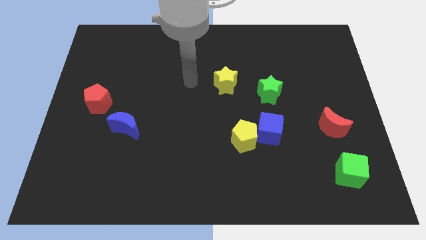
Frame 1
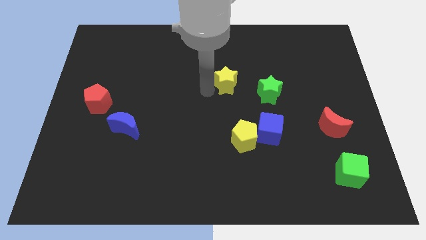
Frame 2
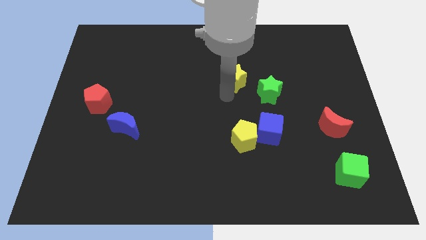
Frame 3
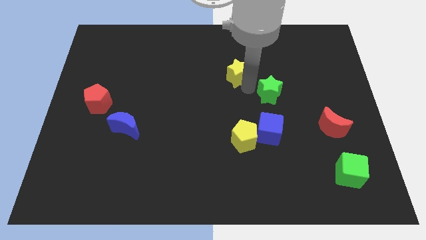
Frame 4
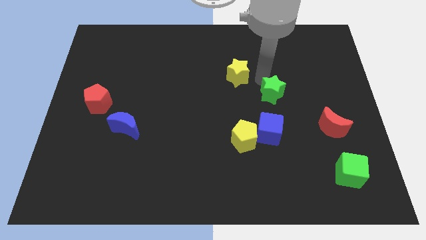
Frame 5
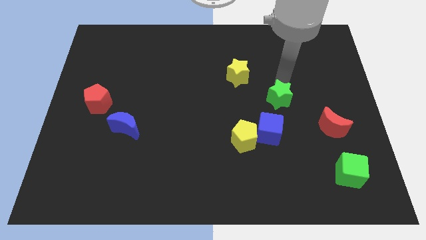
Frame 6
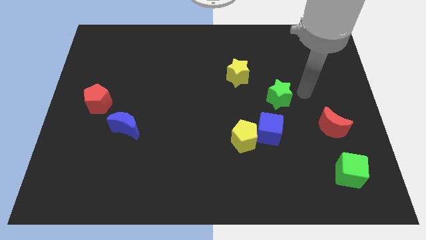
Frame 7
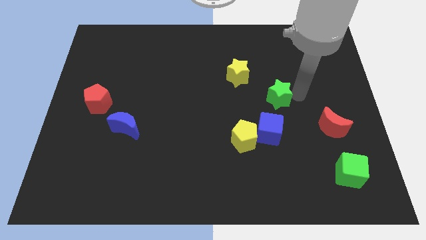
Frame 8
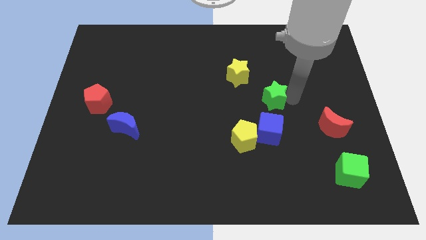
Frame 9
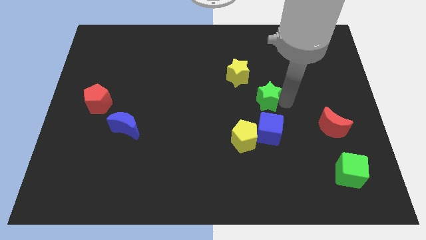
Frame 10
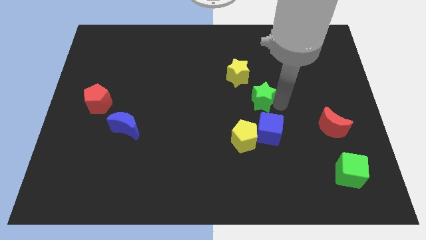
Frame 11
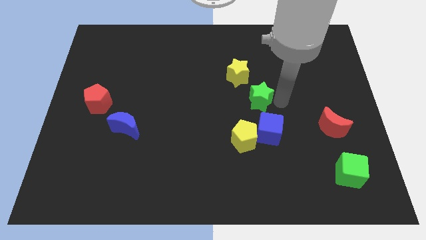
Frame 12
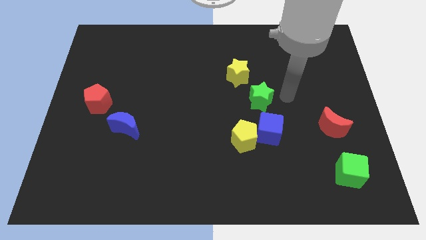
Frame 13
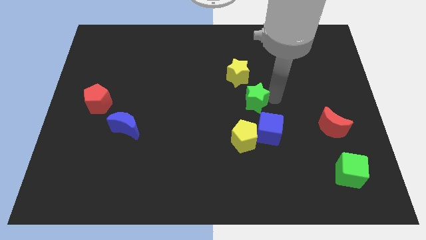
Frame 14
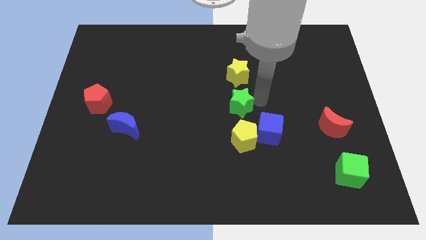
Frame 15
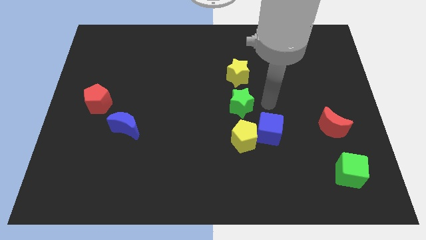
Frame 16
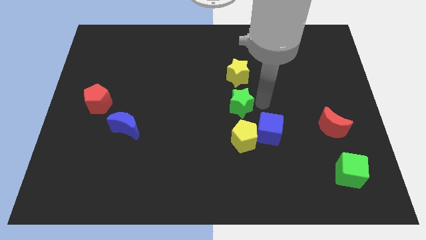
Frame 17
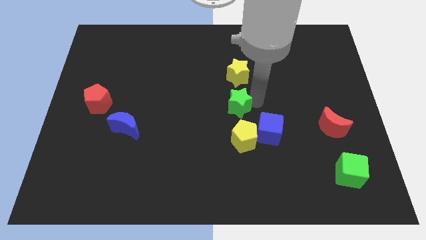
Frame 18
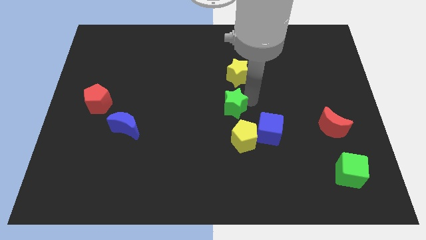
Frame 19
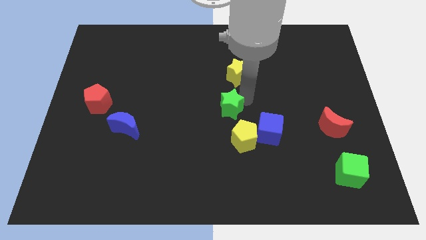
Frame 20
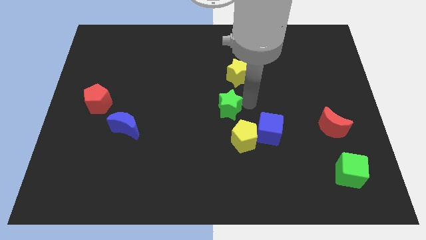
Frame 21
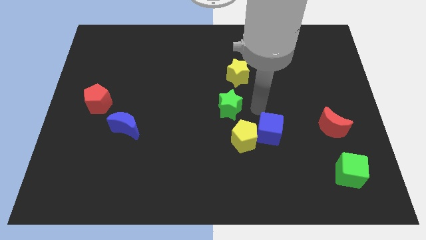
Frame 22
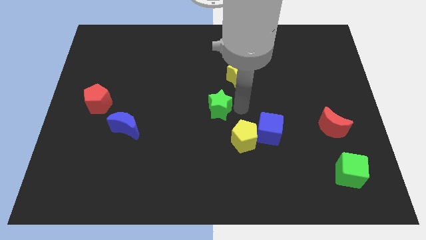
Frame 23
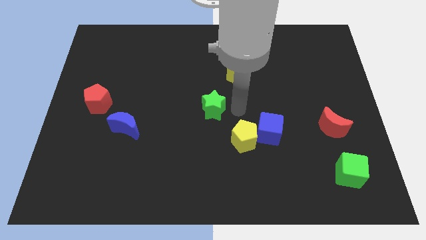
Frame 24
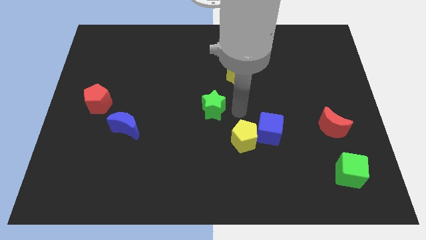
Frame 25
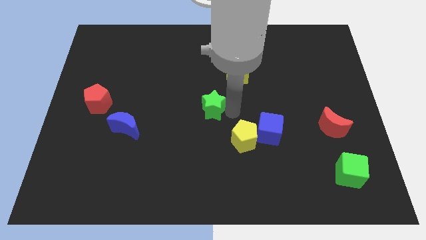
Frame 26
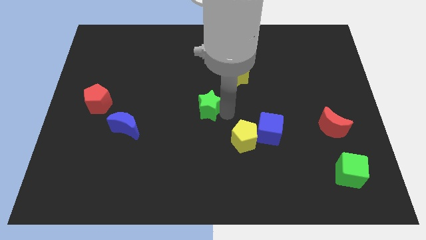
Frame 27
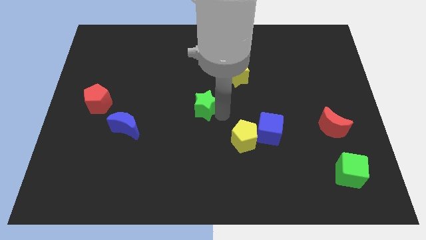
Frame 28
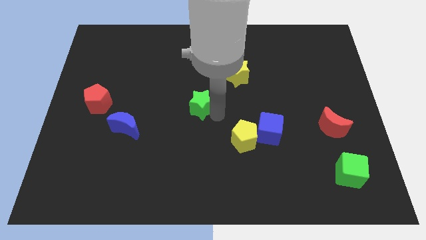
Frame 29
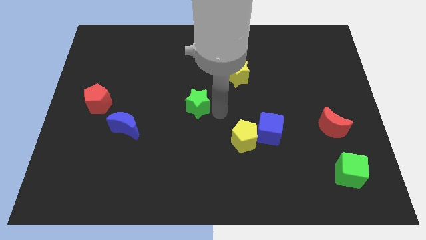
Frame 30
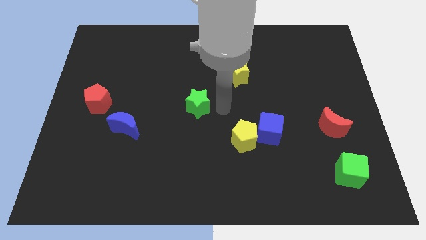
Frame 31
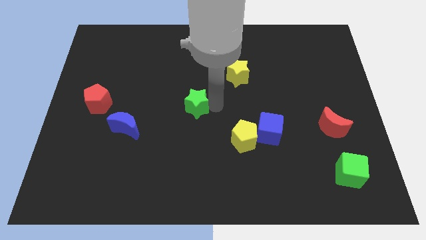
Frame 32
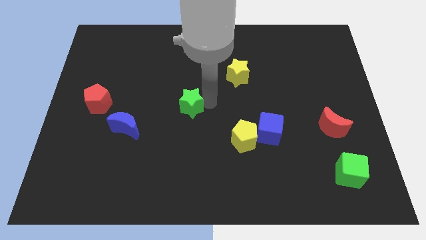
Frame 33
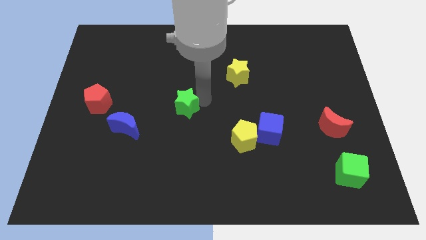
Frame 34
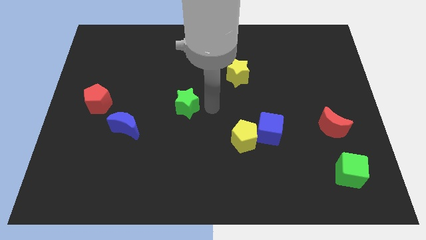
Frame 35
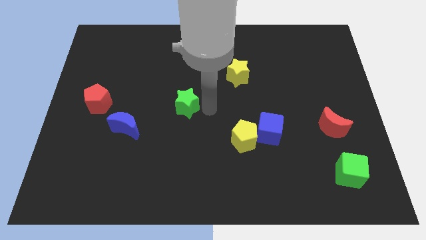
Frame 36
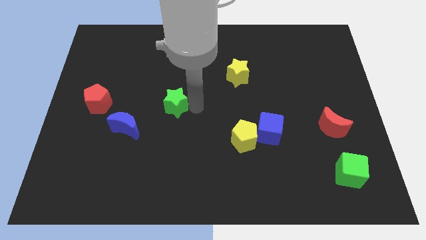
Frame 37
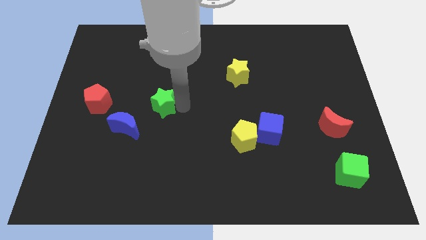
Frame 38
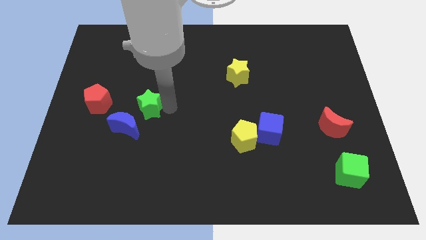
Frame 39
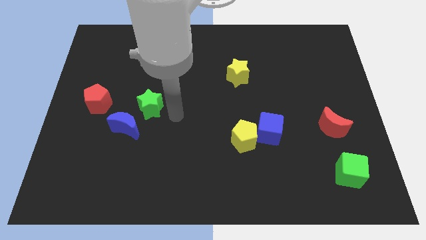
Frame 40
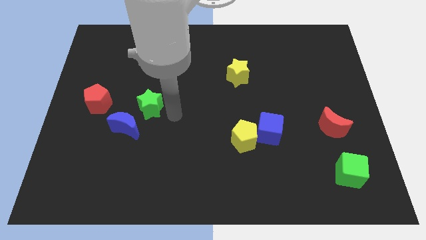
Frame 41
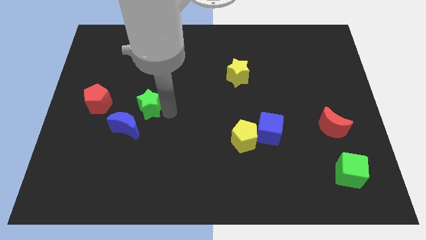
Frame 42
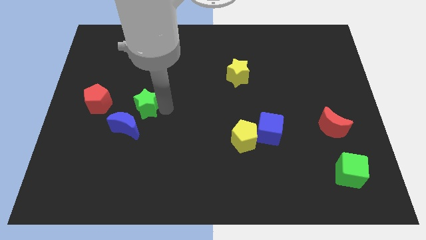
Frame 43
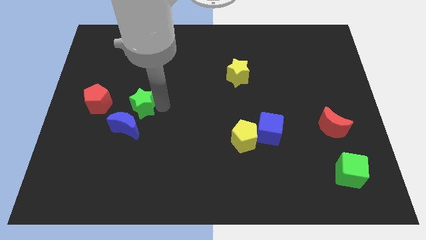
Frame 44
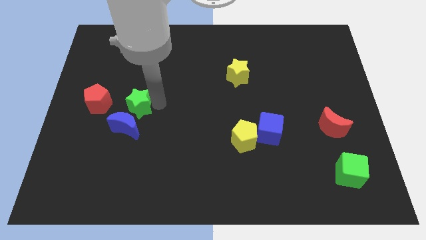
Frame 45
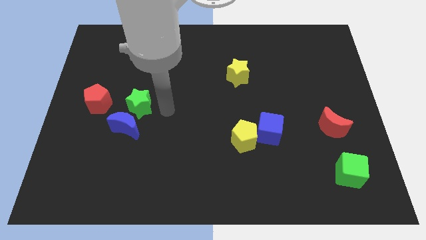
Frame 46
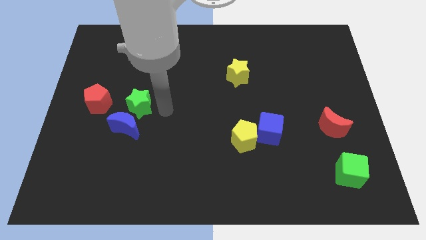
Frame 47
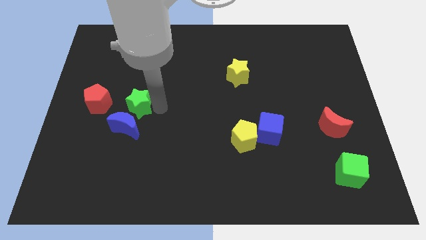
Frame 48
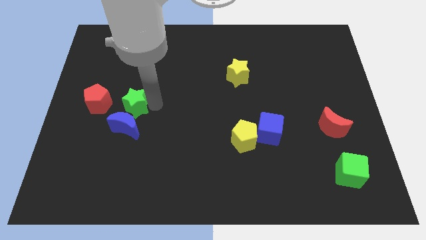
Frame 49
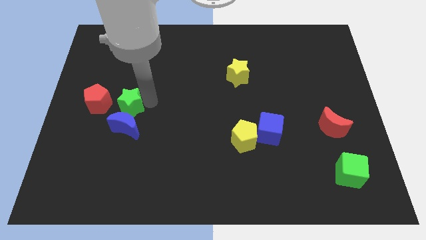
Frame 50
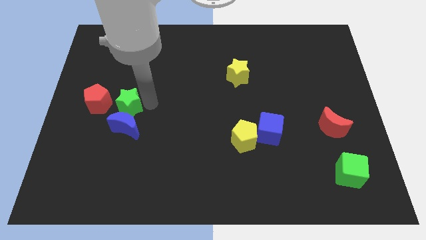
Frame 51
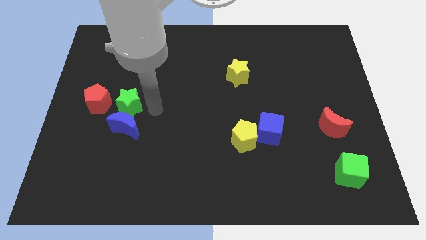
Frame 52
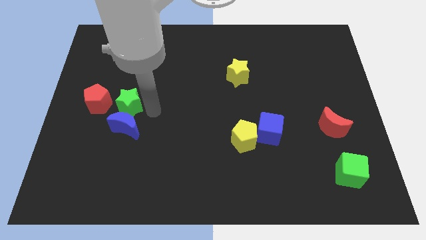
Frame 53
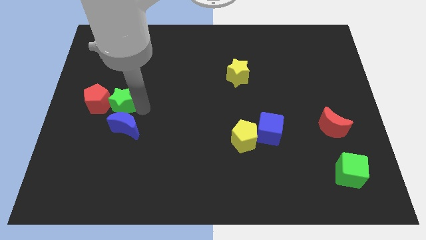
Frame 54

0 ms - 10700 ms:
move the green star next to the red pentagon

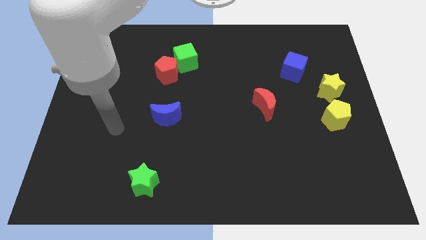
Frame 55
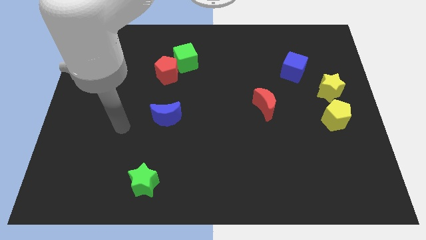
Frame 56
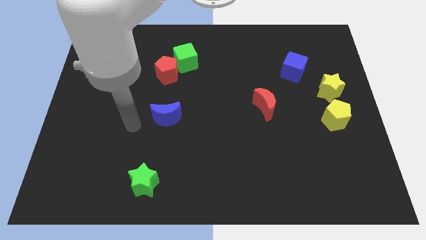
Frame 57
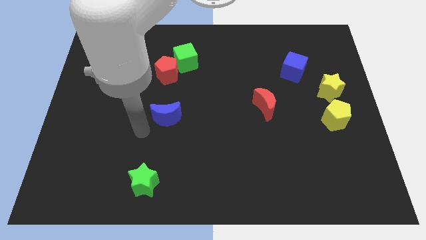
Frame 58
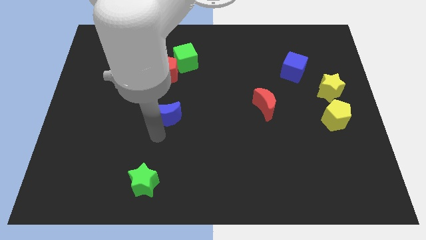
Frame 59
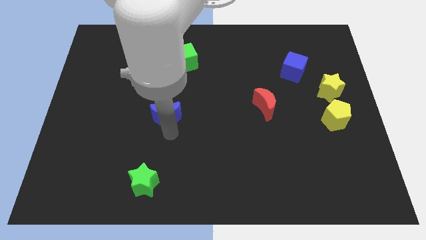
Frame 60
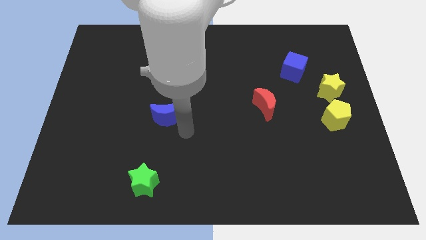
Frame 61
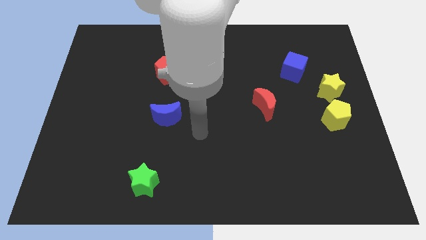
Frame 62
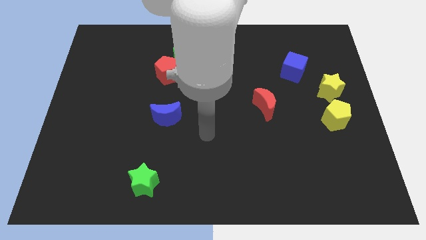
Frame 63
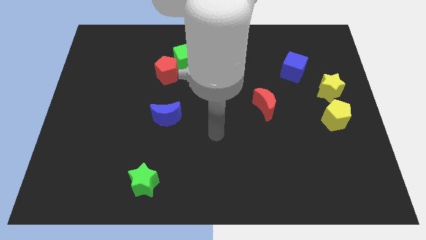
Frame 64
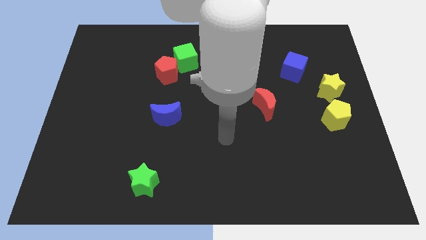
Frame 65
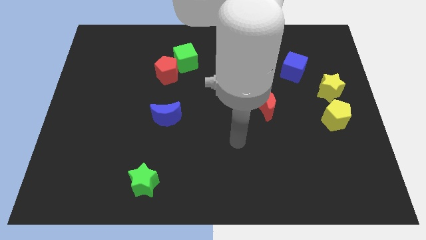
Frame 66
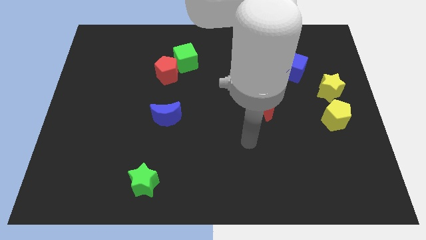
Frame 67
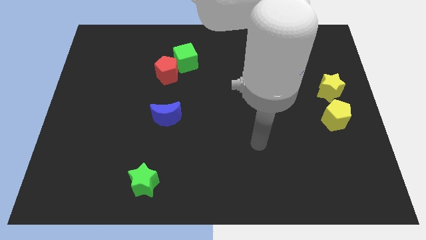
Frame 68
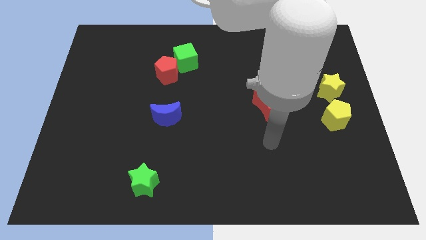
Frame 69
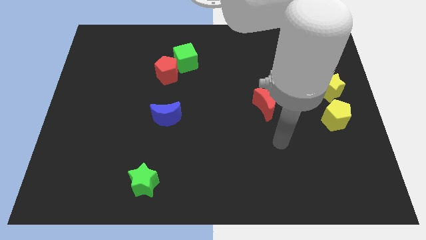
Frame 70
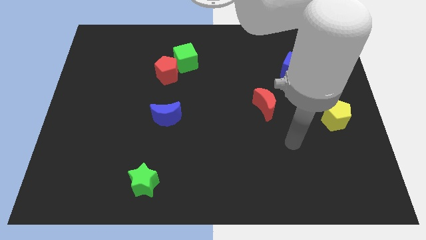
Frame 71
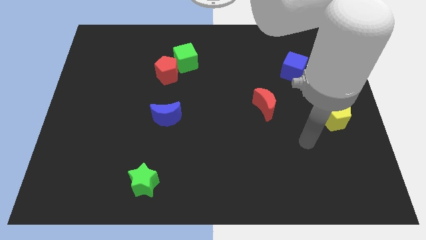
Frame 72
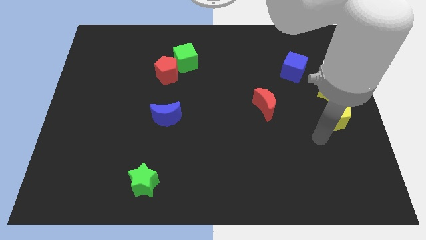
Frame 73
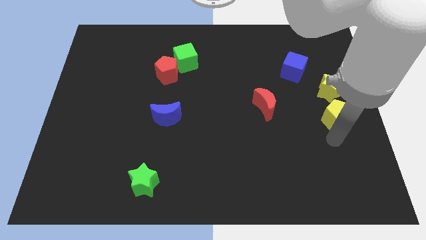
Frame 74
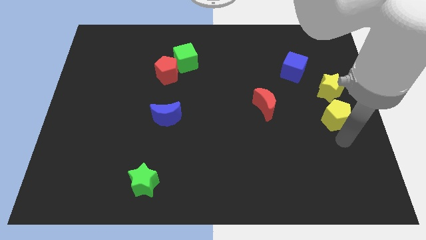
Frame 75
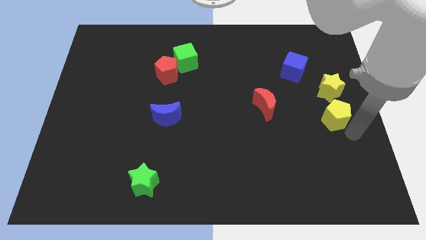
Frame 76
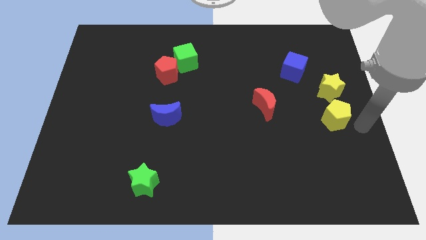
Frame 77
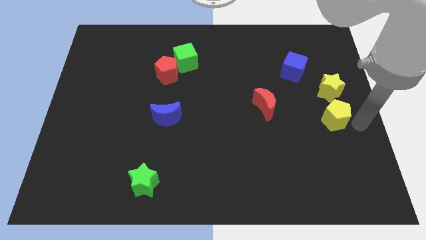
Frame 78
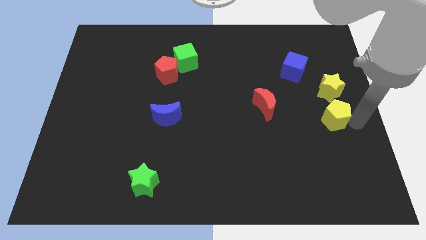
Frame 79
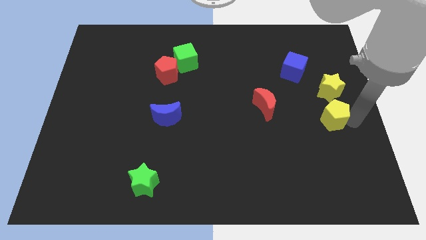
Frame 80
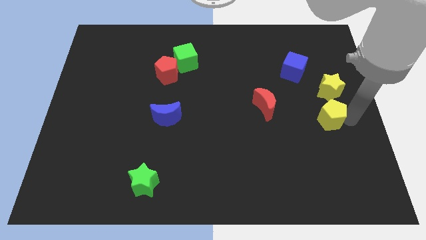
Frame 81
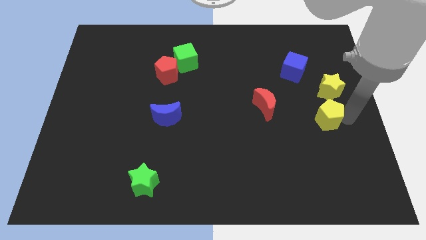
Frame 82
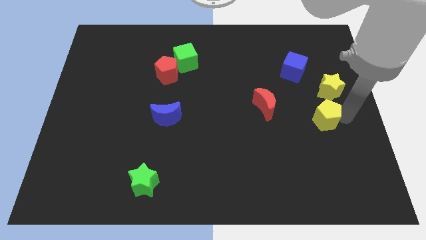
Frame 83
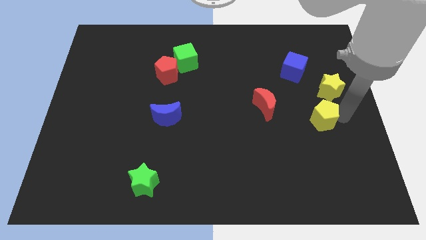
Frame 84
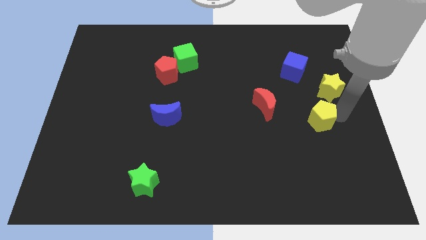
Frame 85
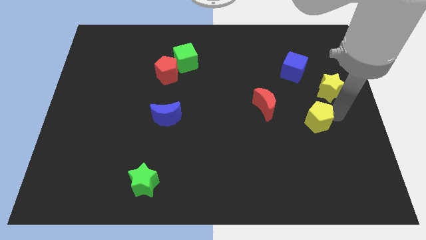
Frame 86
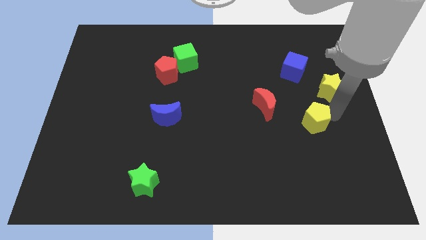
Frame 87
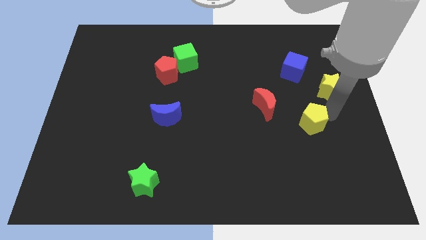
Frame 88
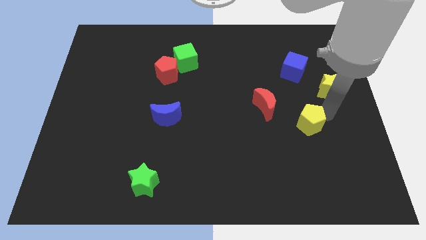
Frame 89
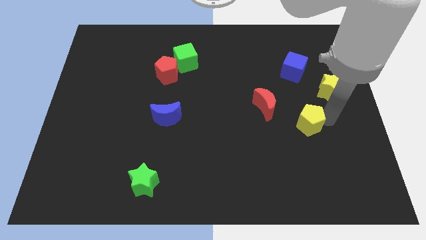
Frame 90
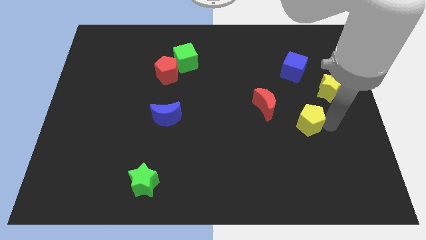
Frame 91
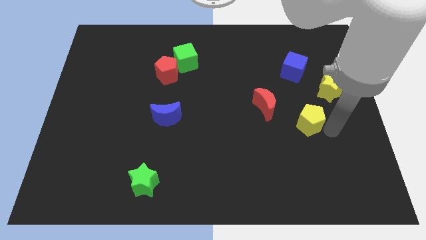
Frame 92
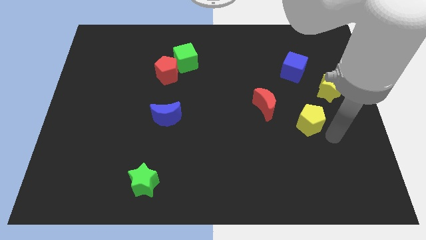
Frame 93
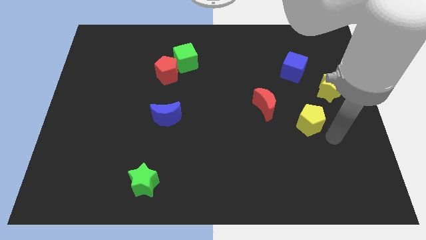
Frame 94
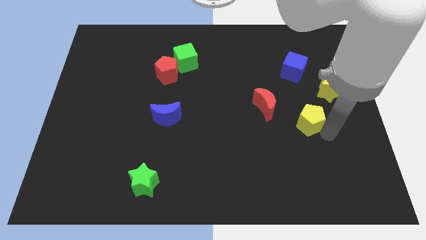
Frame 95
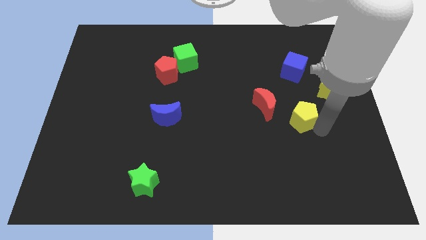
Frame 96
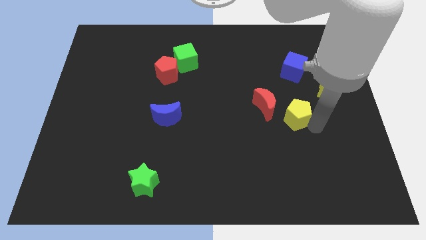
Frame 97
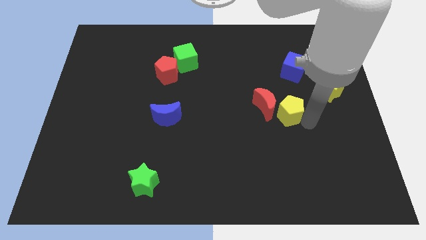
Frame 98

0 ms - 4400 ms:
put the yellow pentagon towards the red moon
